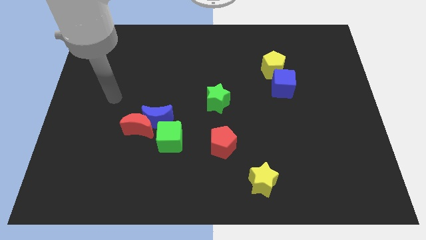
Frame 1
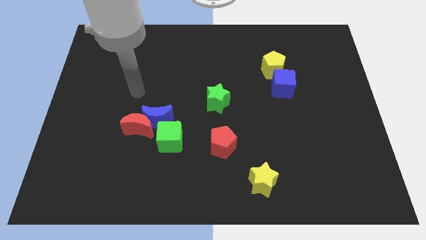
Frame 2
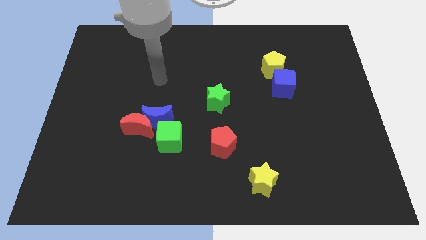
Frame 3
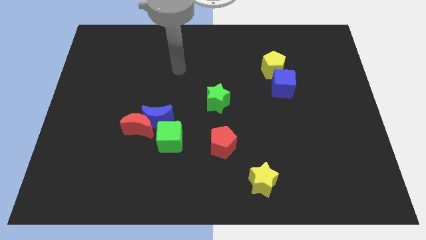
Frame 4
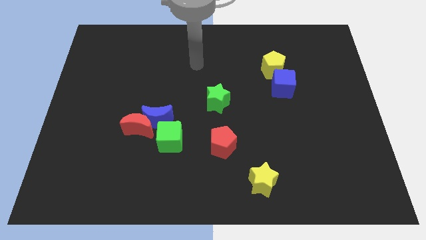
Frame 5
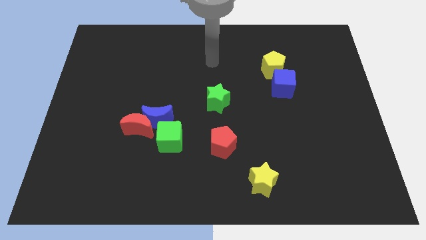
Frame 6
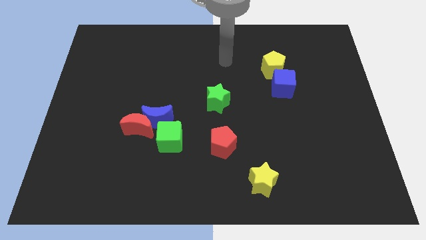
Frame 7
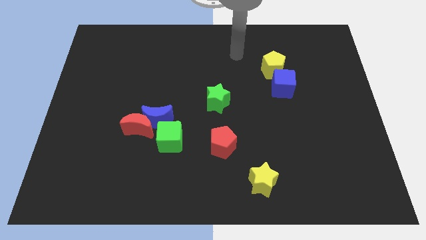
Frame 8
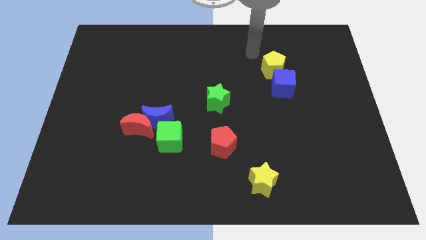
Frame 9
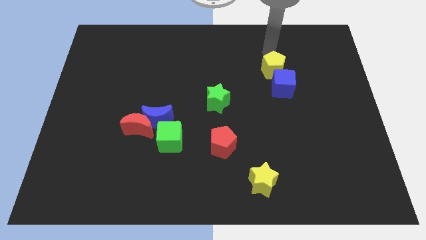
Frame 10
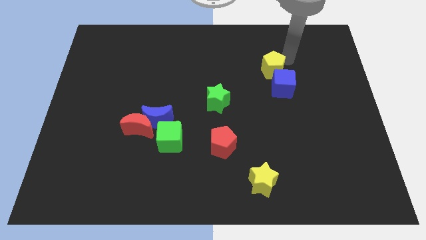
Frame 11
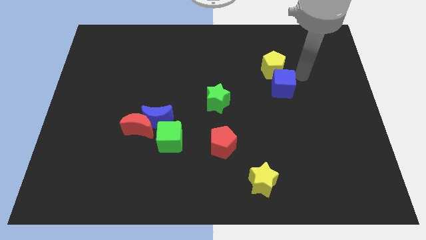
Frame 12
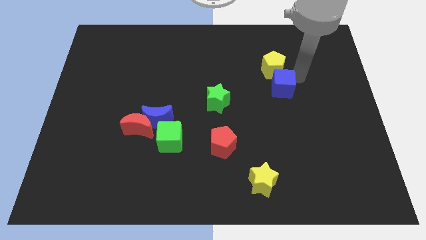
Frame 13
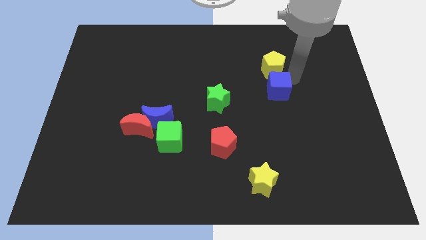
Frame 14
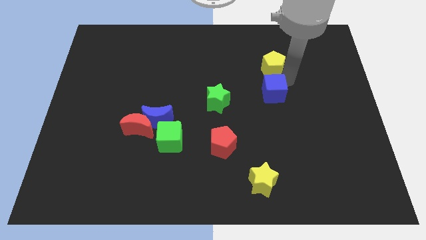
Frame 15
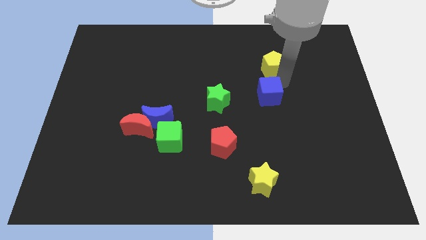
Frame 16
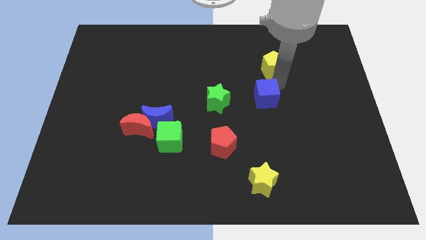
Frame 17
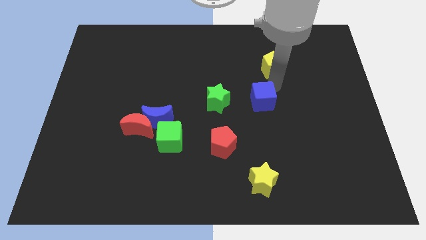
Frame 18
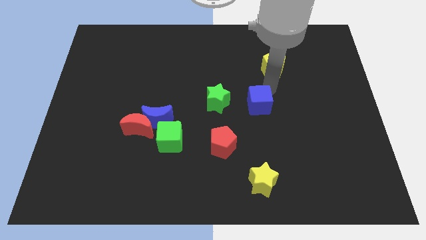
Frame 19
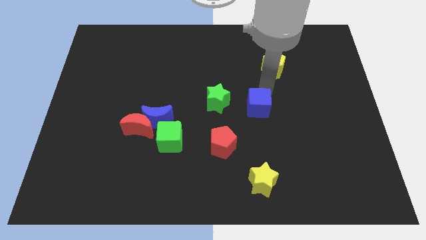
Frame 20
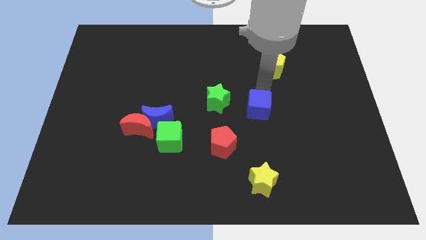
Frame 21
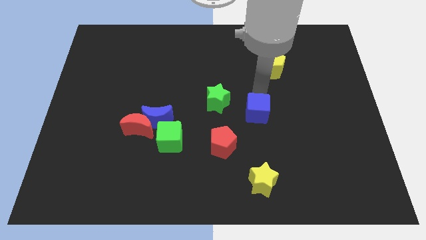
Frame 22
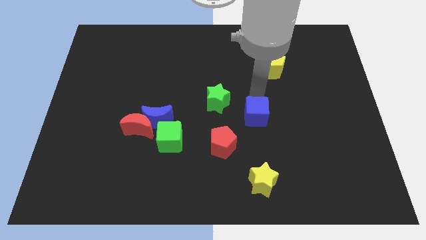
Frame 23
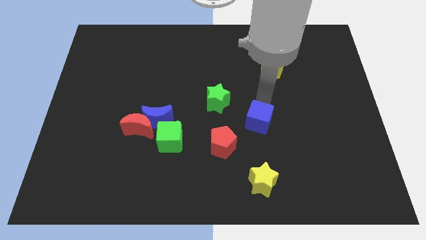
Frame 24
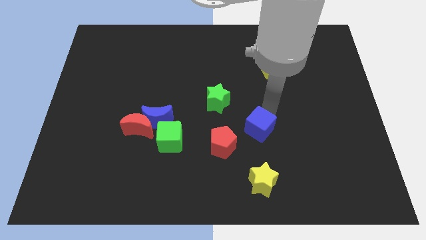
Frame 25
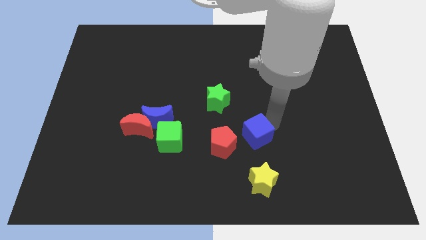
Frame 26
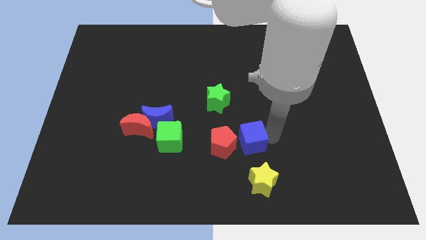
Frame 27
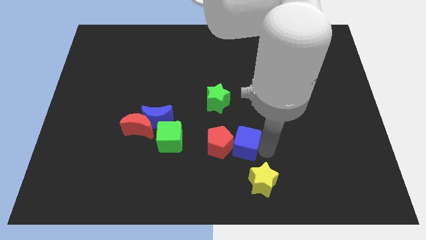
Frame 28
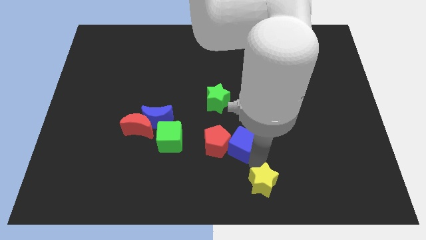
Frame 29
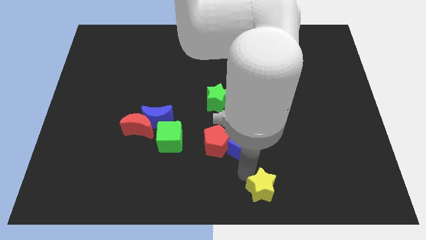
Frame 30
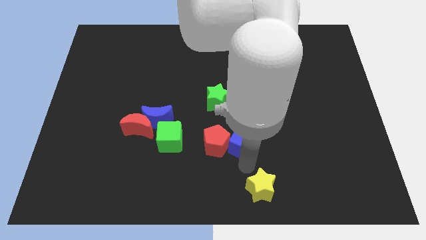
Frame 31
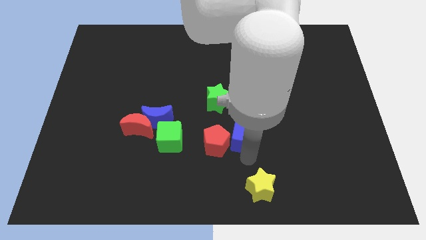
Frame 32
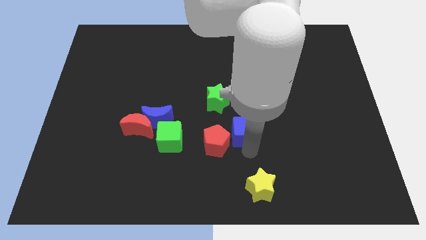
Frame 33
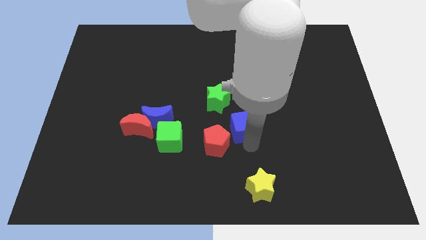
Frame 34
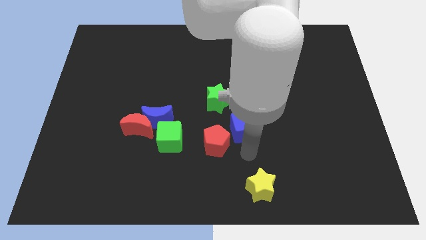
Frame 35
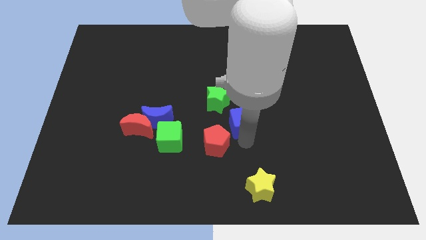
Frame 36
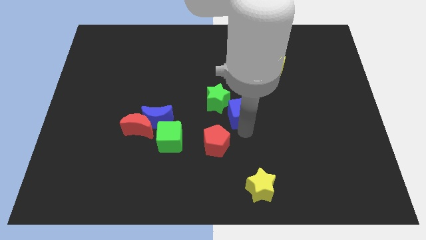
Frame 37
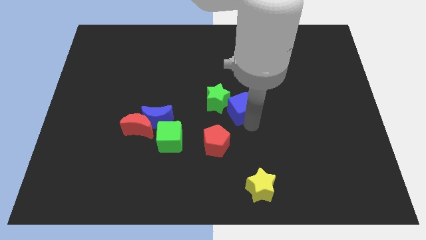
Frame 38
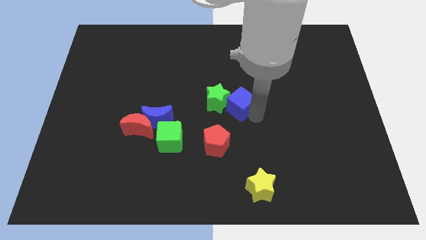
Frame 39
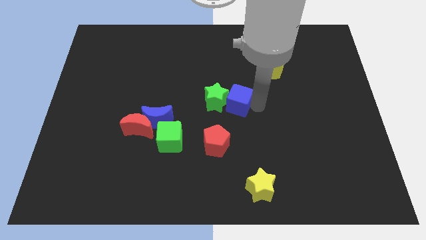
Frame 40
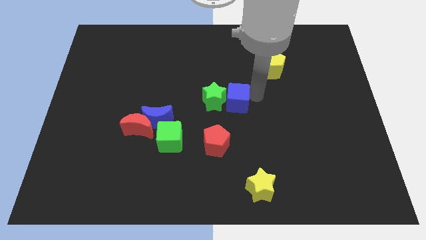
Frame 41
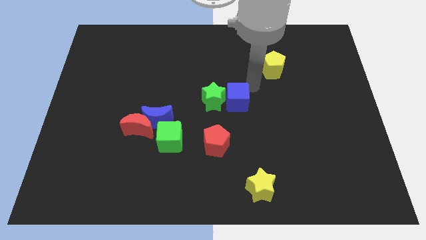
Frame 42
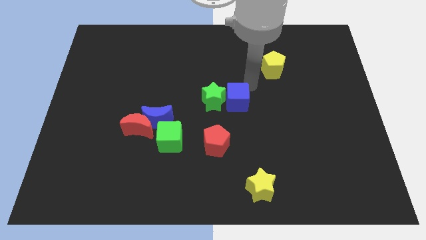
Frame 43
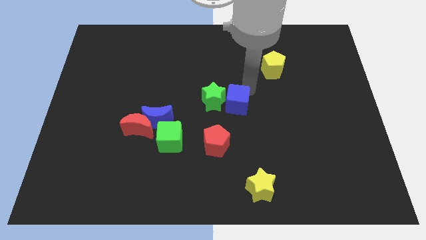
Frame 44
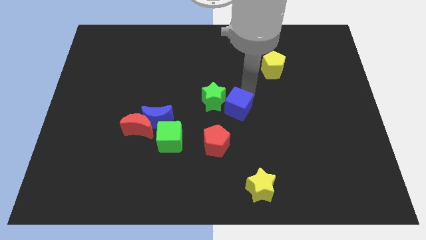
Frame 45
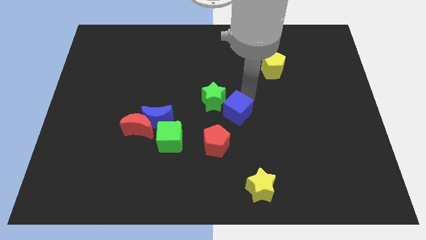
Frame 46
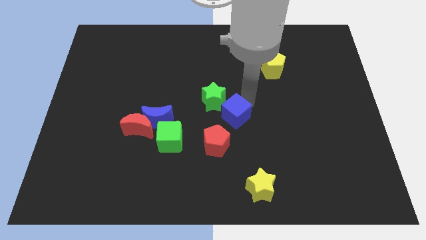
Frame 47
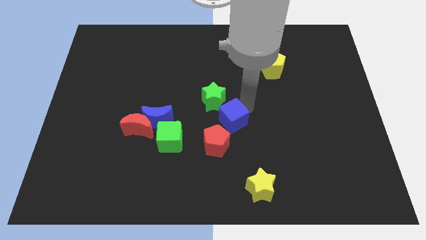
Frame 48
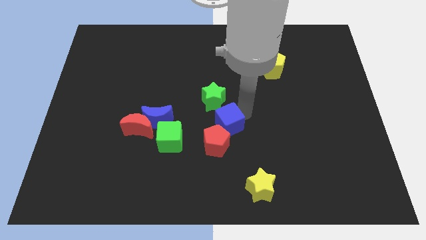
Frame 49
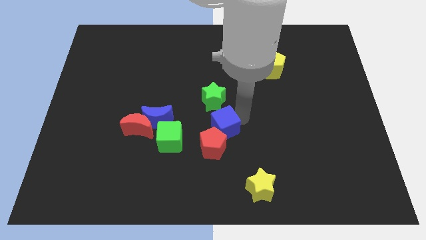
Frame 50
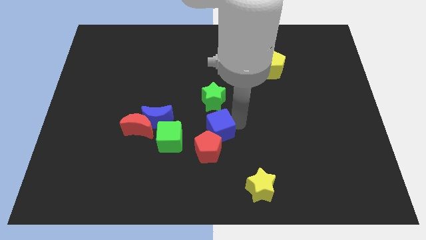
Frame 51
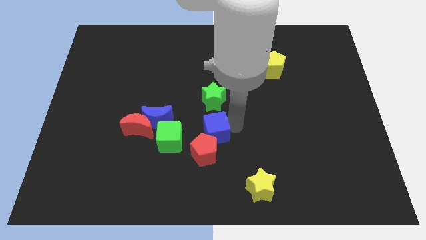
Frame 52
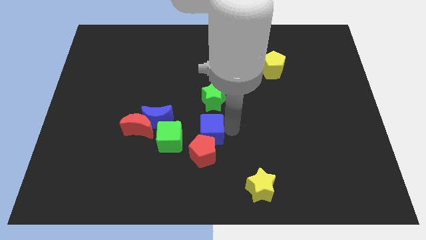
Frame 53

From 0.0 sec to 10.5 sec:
put the blue cube just right of the red moon

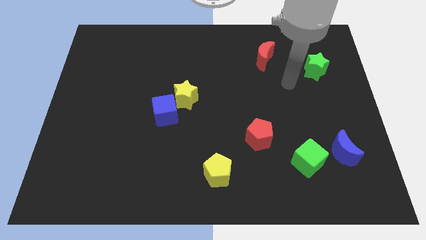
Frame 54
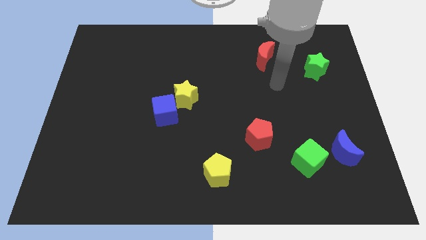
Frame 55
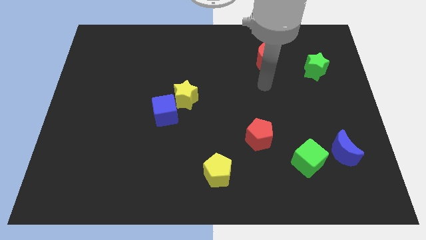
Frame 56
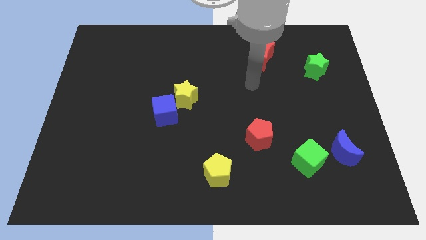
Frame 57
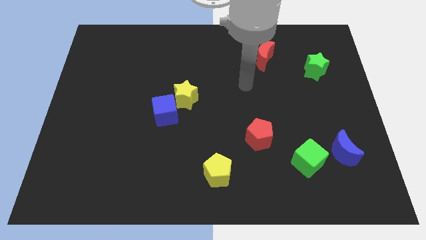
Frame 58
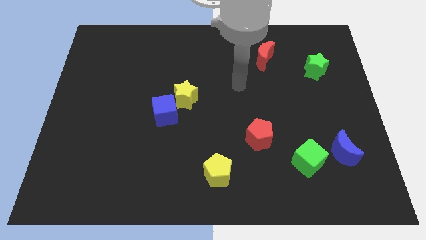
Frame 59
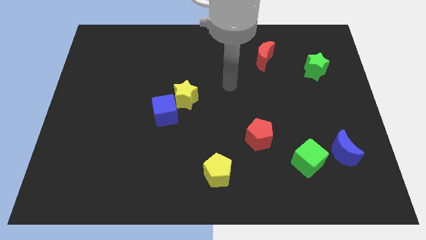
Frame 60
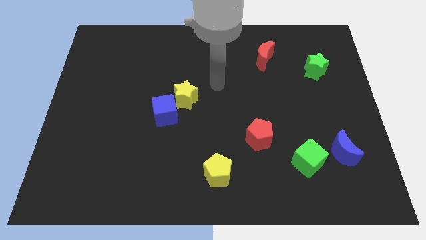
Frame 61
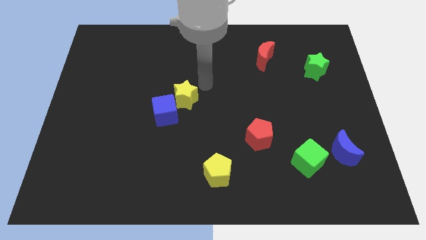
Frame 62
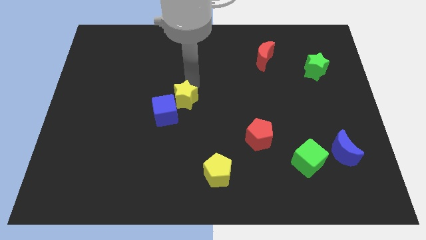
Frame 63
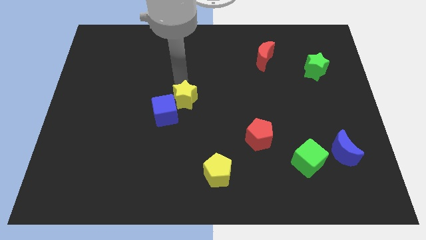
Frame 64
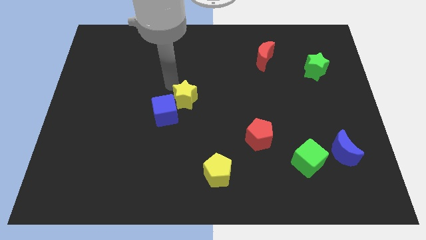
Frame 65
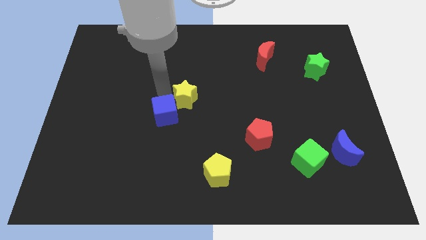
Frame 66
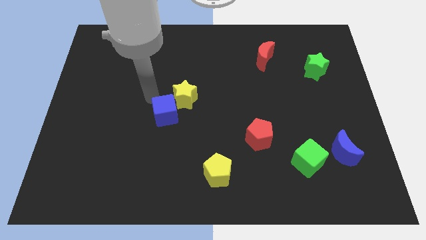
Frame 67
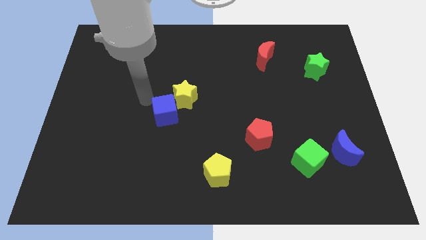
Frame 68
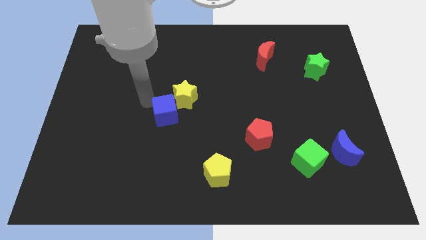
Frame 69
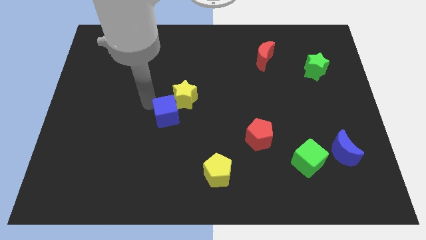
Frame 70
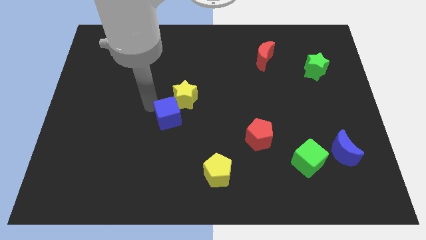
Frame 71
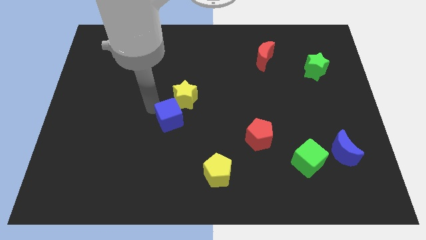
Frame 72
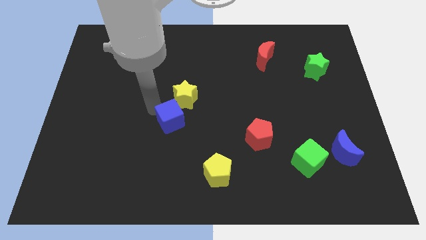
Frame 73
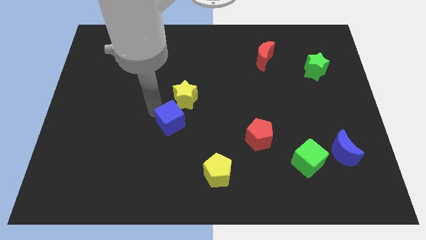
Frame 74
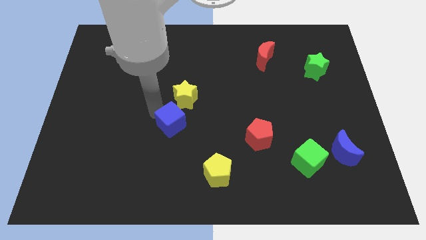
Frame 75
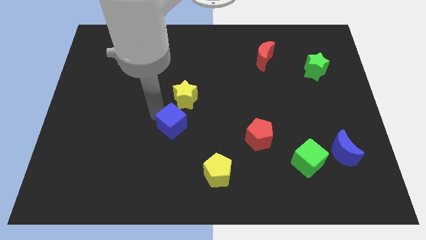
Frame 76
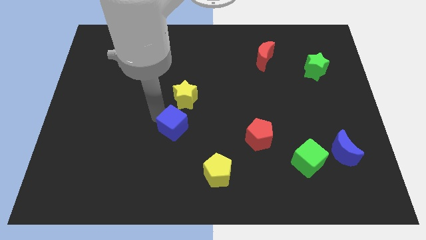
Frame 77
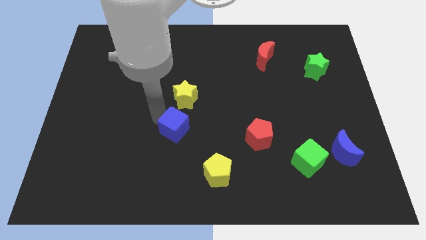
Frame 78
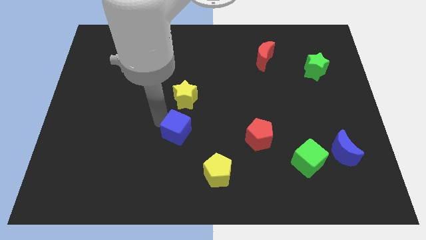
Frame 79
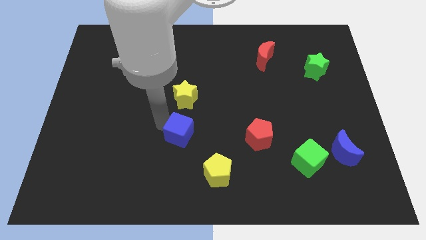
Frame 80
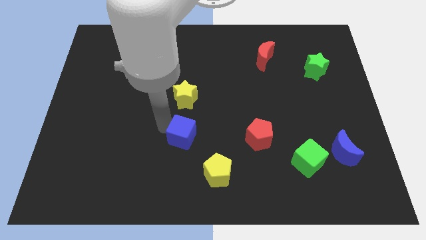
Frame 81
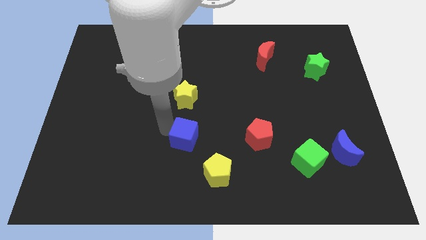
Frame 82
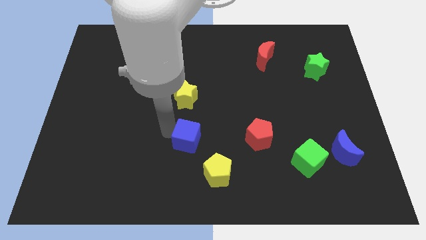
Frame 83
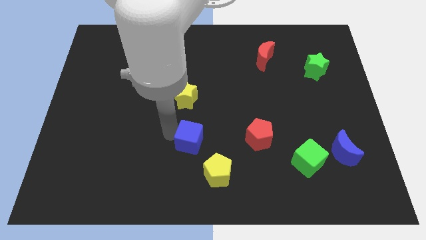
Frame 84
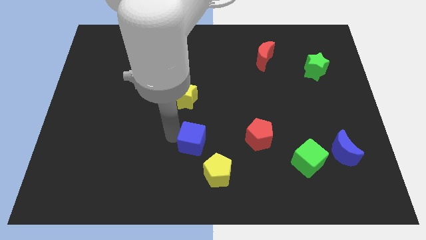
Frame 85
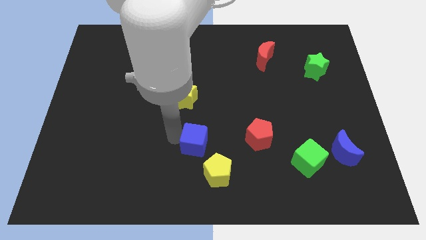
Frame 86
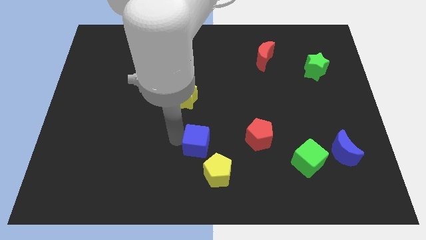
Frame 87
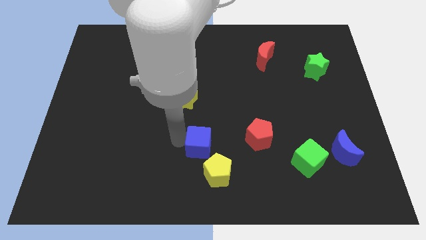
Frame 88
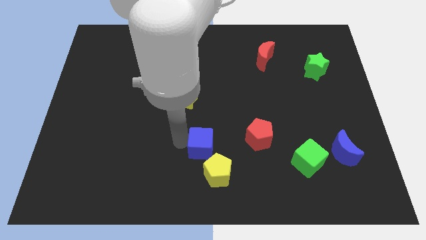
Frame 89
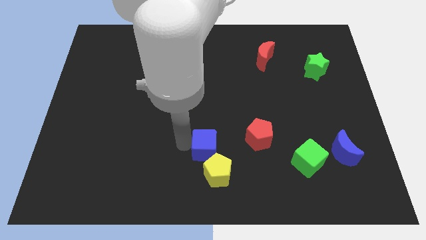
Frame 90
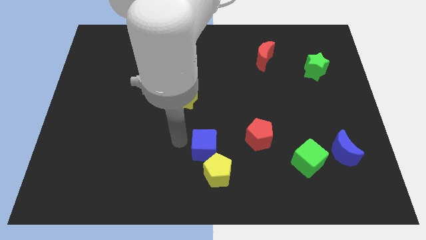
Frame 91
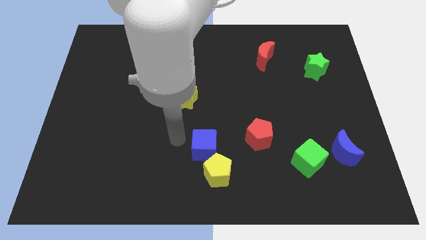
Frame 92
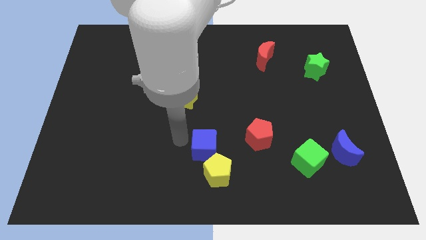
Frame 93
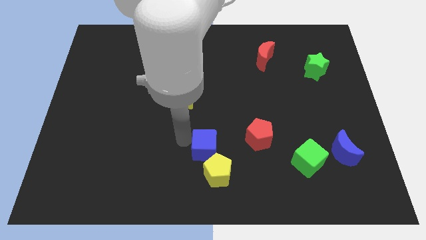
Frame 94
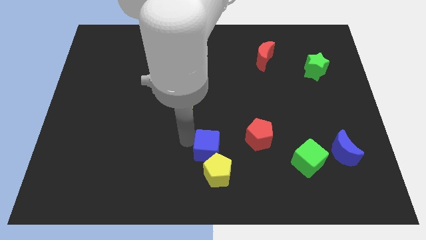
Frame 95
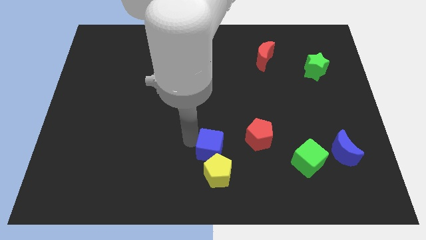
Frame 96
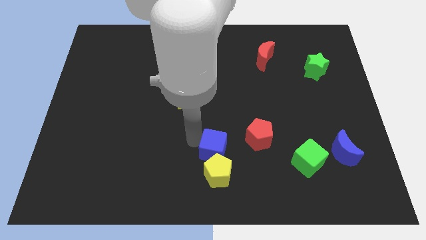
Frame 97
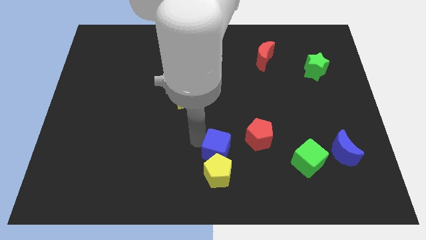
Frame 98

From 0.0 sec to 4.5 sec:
put the blue cube to the bottom left of the red pentagon
